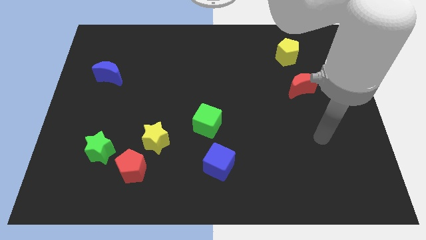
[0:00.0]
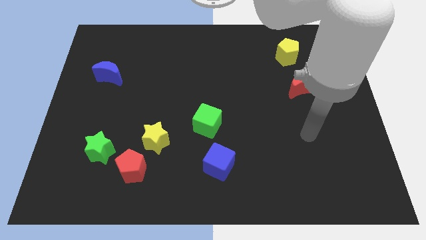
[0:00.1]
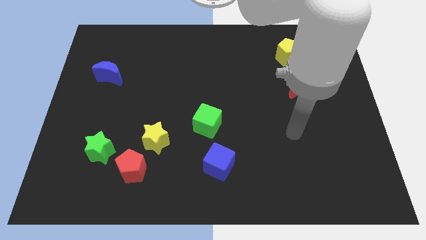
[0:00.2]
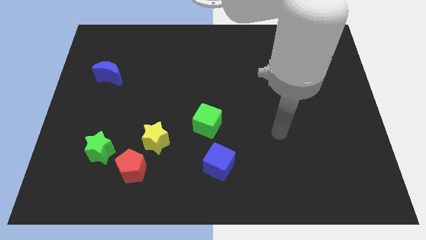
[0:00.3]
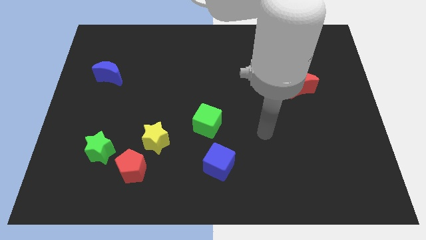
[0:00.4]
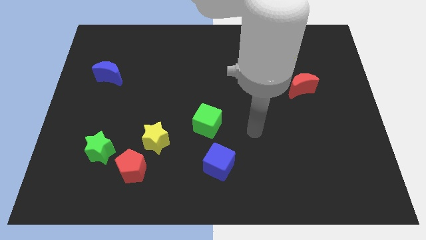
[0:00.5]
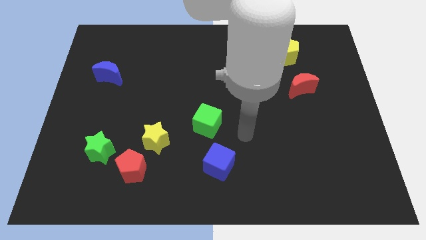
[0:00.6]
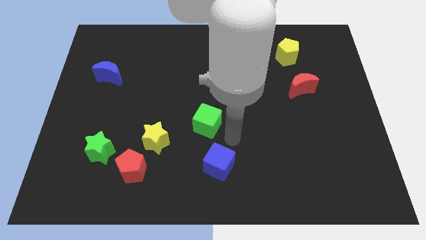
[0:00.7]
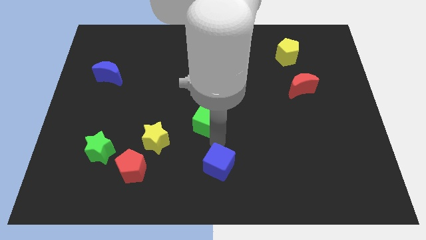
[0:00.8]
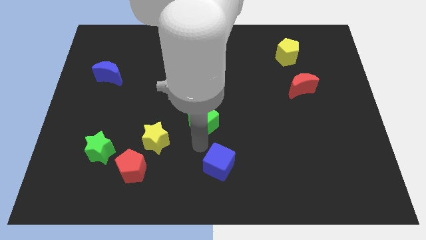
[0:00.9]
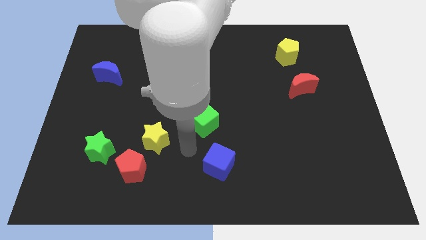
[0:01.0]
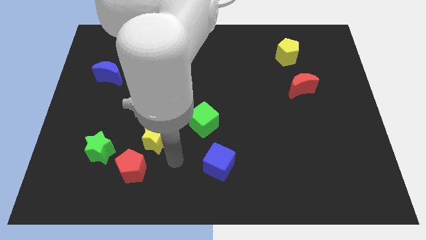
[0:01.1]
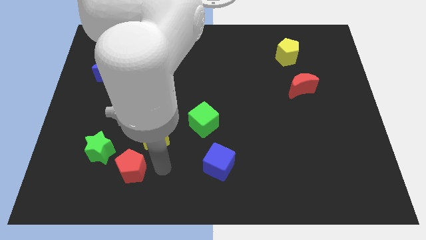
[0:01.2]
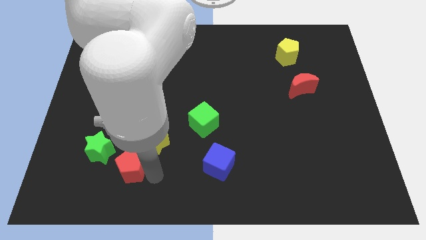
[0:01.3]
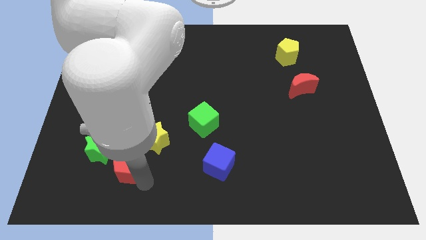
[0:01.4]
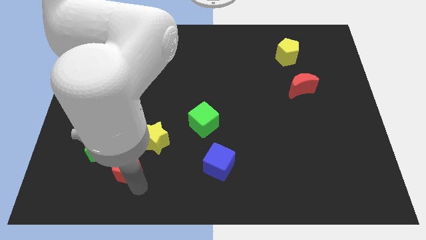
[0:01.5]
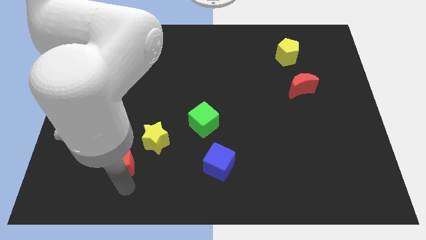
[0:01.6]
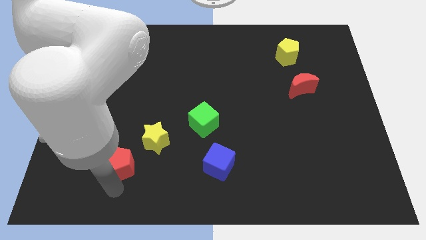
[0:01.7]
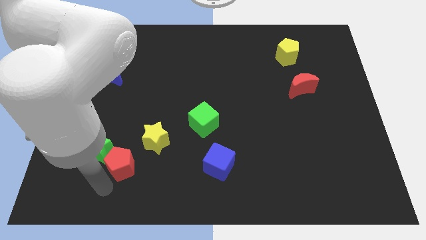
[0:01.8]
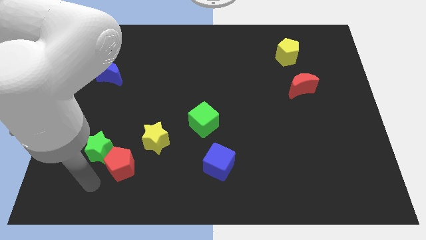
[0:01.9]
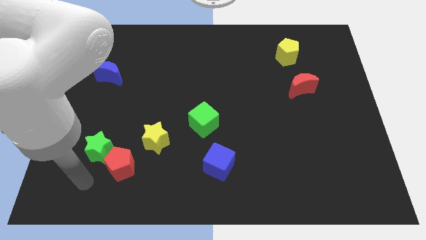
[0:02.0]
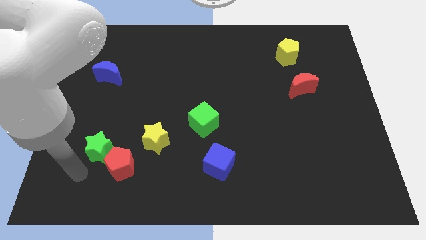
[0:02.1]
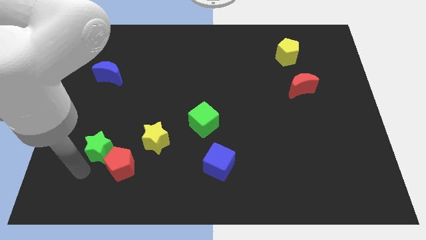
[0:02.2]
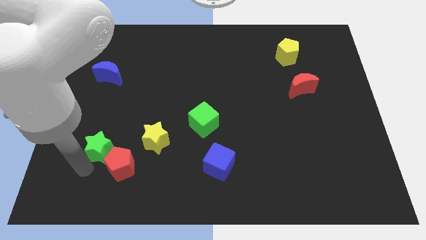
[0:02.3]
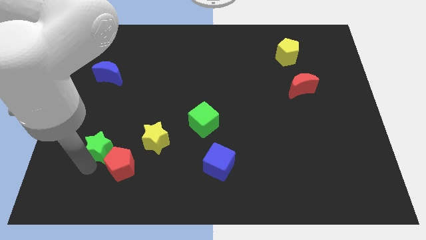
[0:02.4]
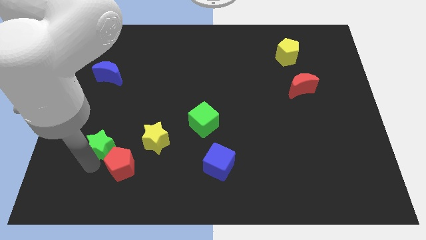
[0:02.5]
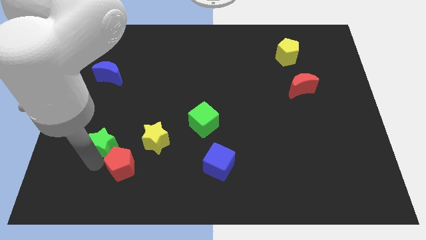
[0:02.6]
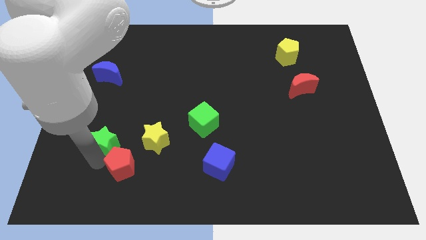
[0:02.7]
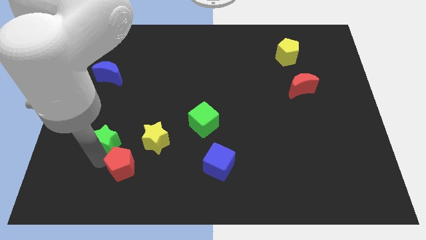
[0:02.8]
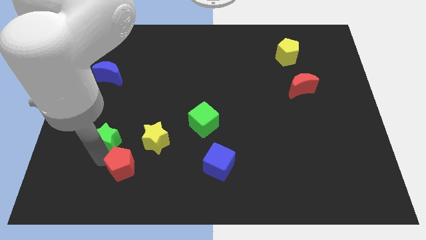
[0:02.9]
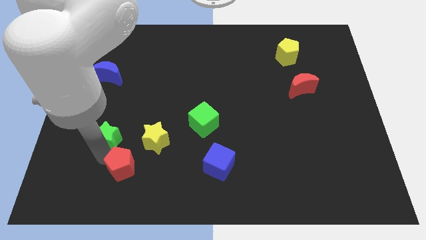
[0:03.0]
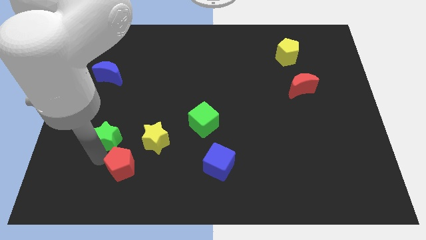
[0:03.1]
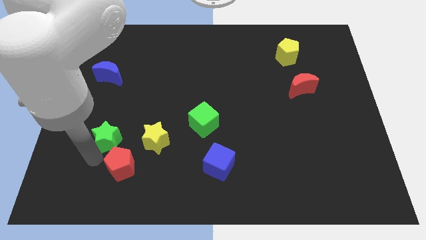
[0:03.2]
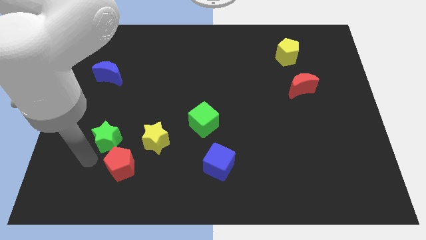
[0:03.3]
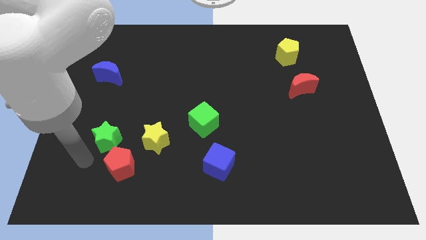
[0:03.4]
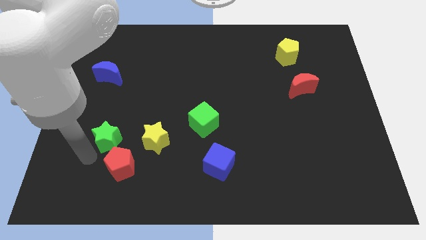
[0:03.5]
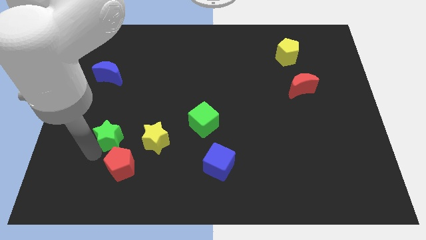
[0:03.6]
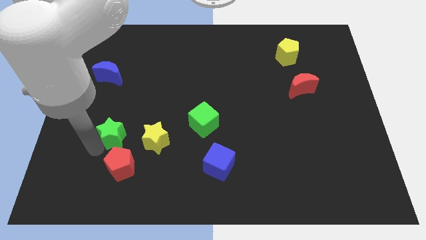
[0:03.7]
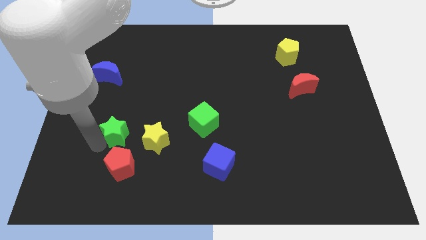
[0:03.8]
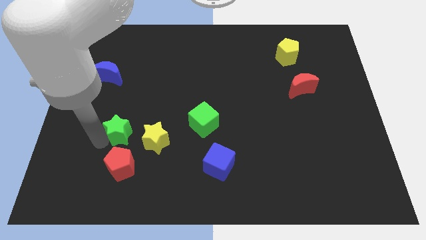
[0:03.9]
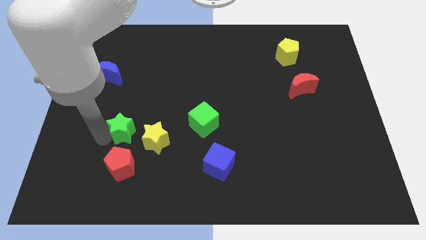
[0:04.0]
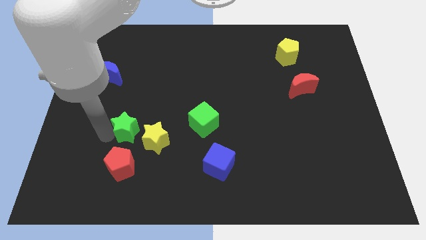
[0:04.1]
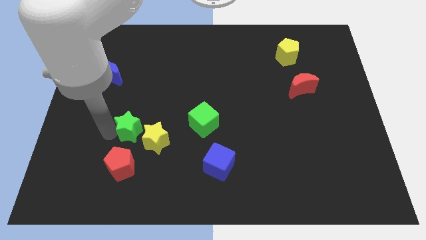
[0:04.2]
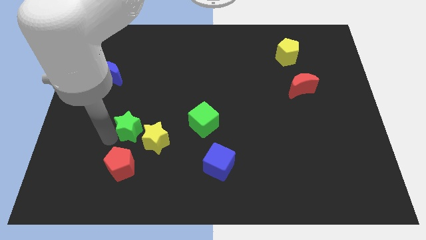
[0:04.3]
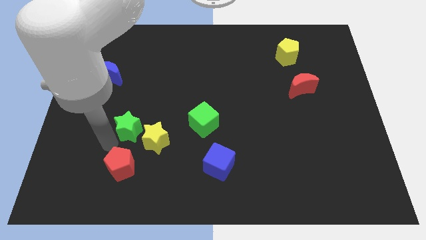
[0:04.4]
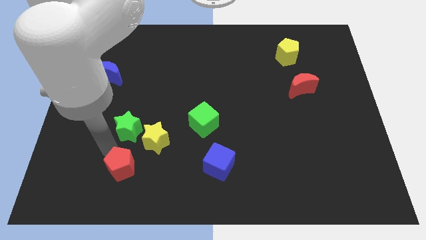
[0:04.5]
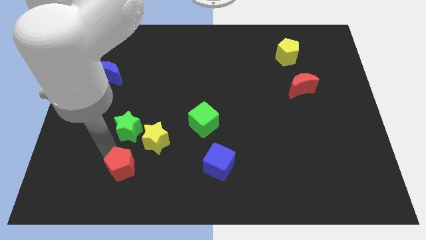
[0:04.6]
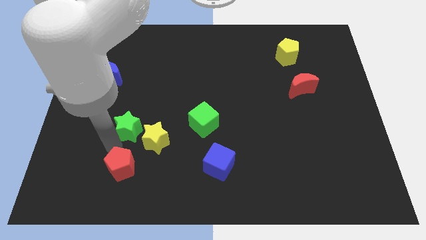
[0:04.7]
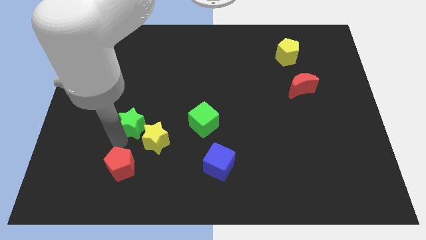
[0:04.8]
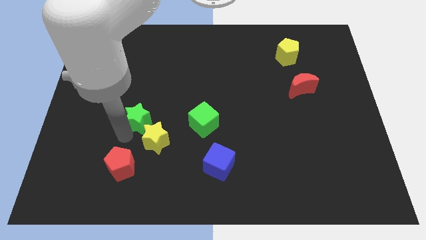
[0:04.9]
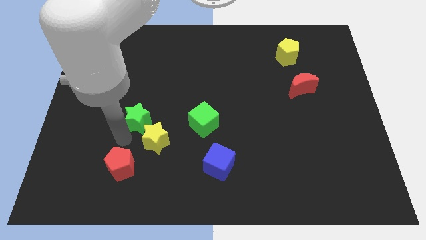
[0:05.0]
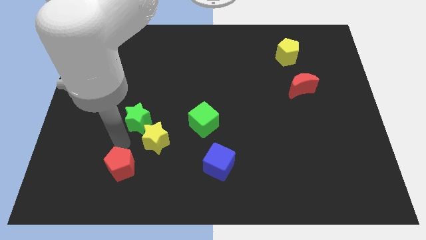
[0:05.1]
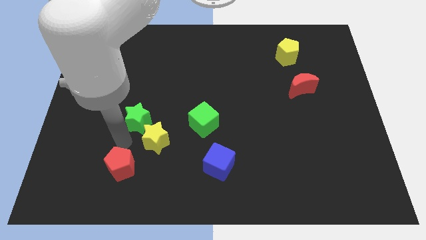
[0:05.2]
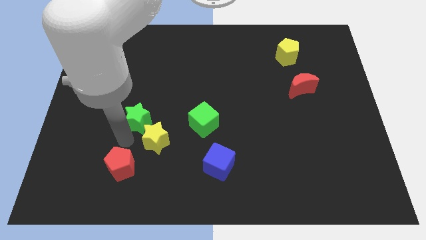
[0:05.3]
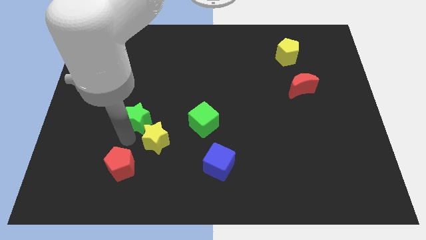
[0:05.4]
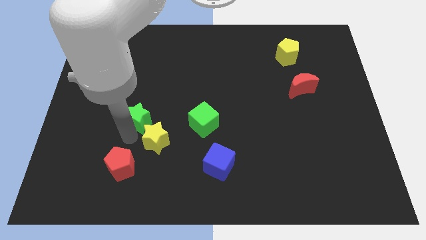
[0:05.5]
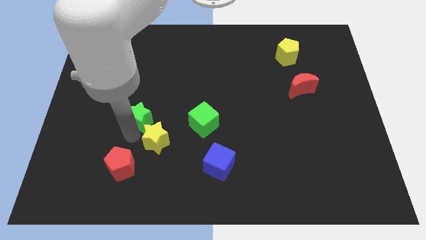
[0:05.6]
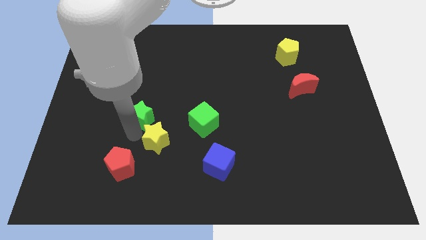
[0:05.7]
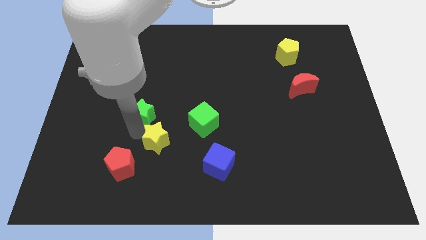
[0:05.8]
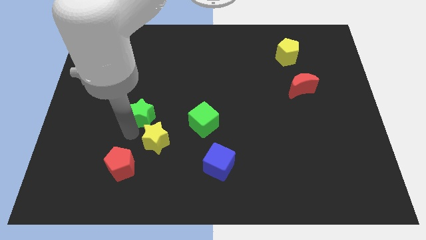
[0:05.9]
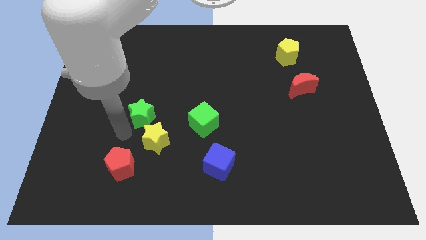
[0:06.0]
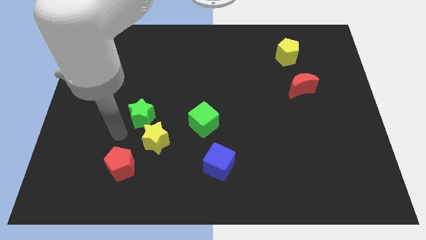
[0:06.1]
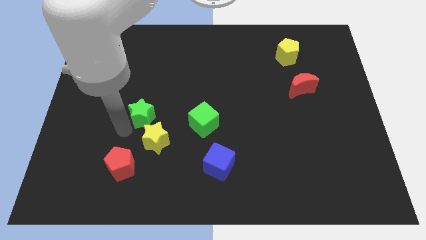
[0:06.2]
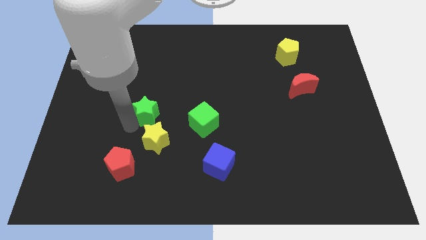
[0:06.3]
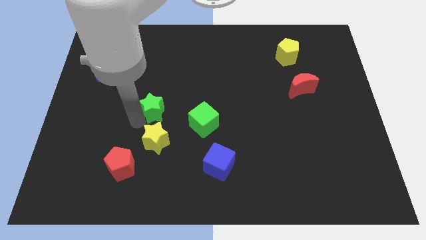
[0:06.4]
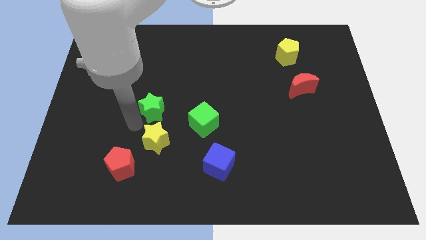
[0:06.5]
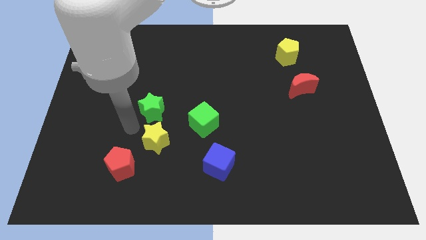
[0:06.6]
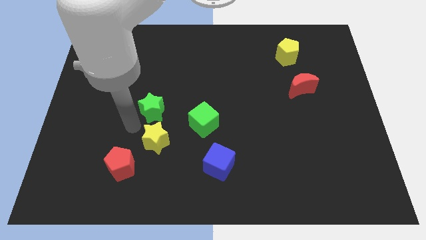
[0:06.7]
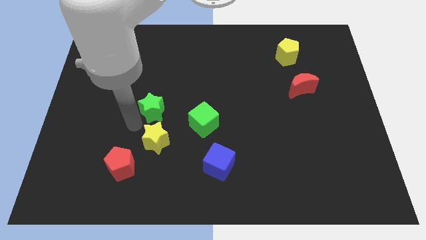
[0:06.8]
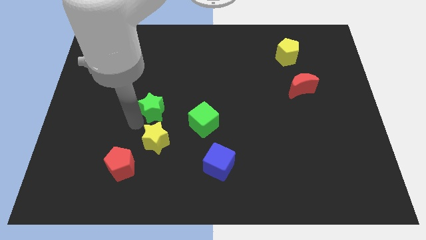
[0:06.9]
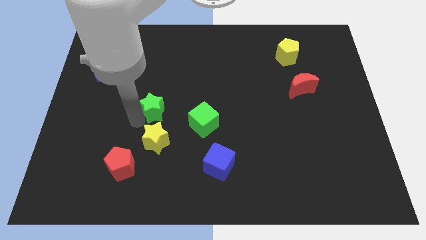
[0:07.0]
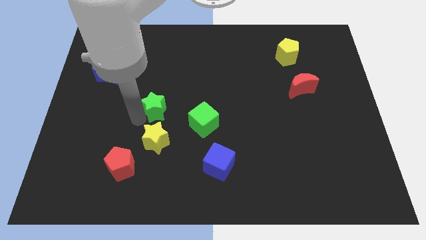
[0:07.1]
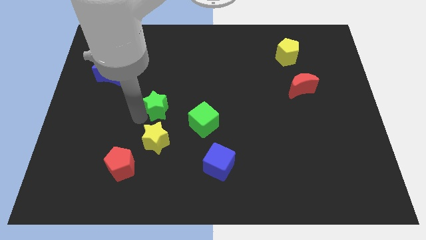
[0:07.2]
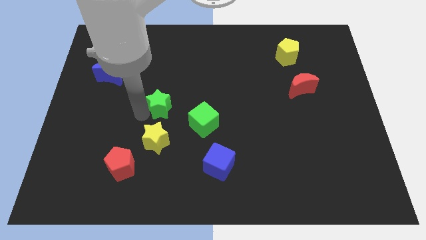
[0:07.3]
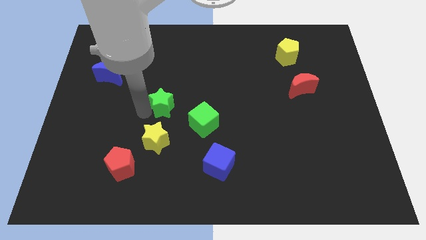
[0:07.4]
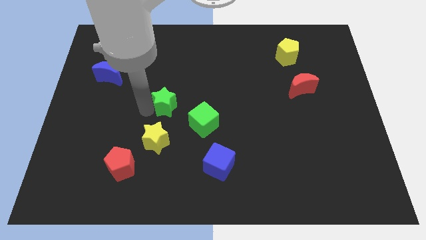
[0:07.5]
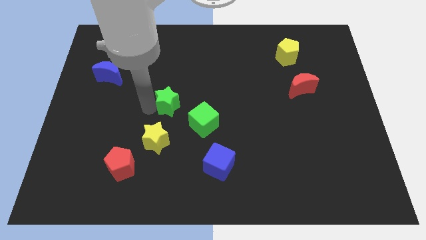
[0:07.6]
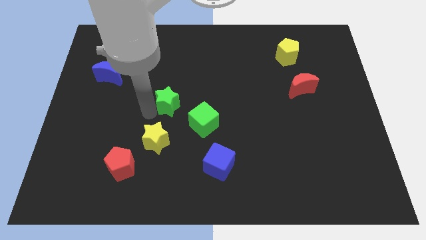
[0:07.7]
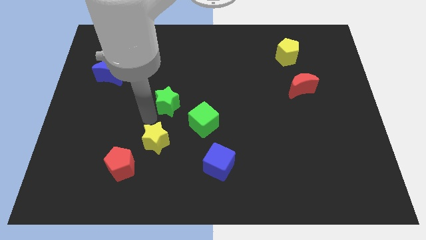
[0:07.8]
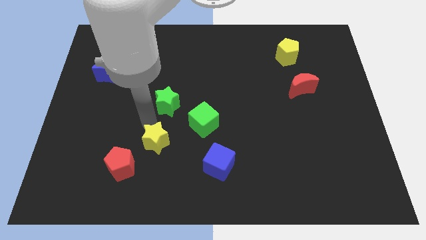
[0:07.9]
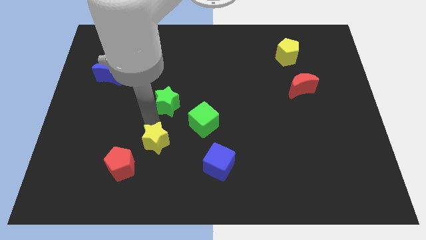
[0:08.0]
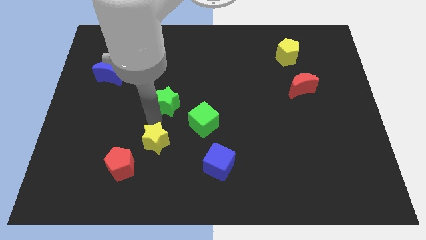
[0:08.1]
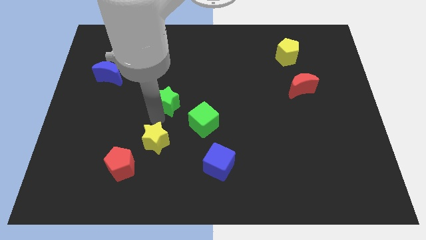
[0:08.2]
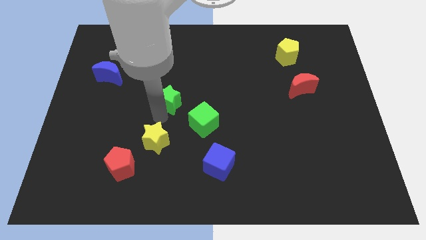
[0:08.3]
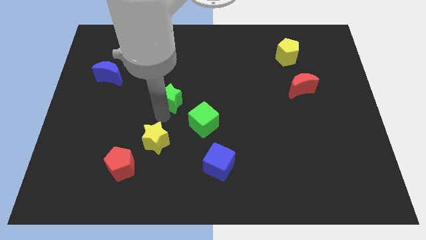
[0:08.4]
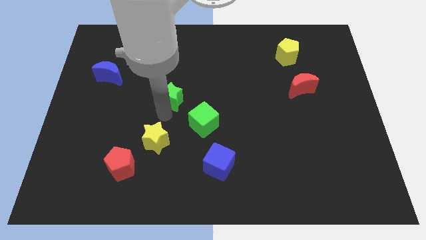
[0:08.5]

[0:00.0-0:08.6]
push the green star upwards and right diagonally
